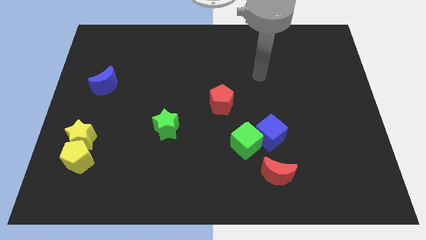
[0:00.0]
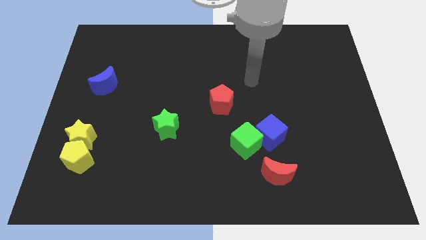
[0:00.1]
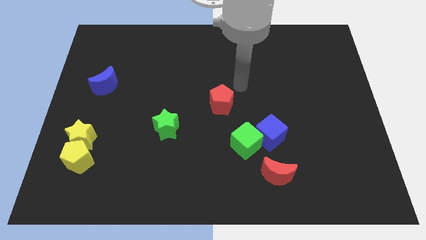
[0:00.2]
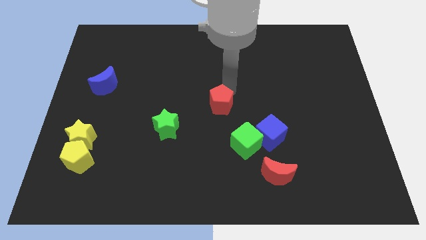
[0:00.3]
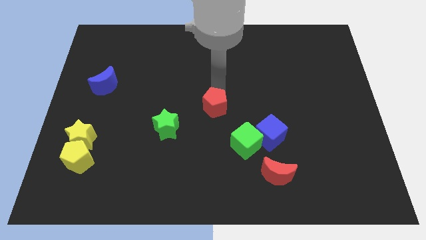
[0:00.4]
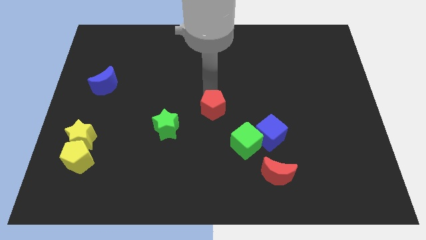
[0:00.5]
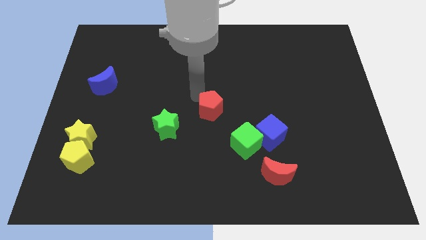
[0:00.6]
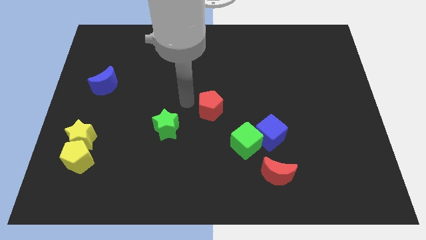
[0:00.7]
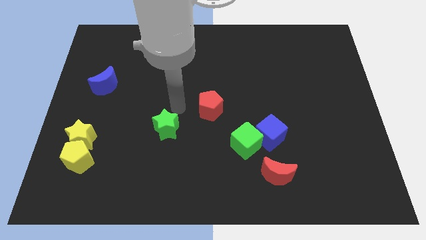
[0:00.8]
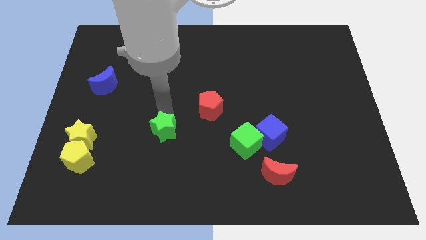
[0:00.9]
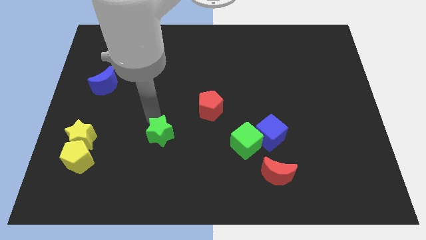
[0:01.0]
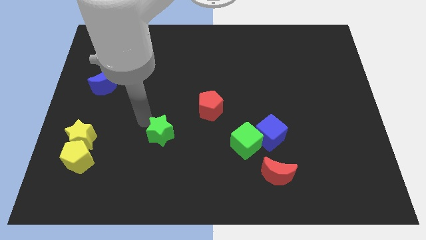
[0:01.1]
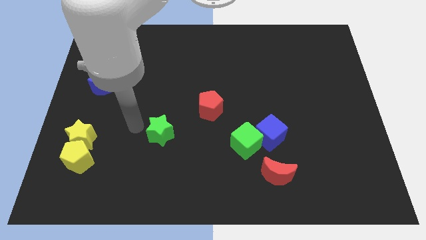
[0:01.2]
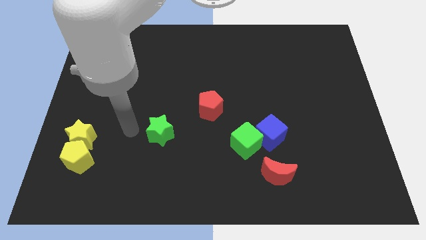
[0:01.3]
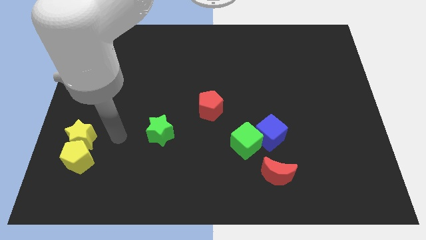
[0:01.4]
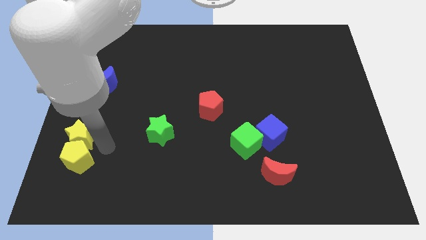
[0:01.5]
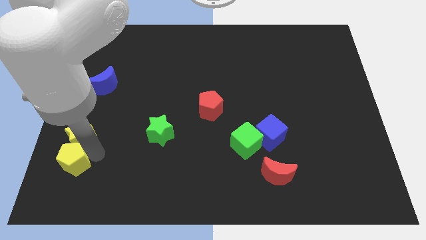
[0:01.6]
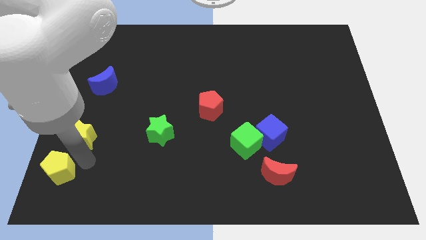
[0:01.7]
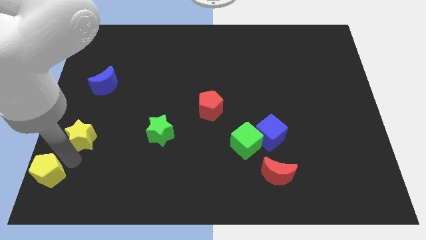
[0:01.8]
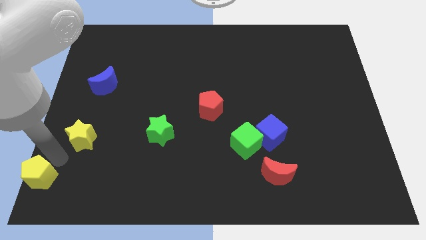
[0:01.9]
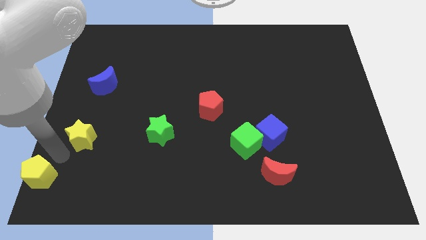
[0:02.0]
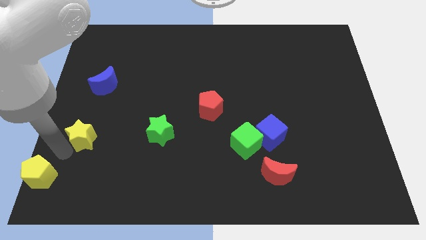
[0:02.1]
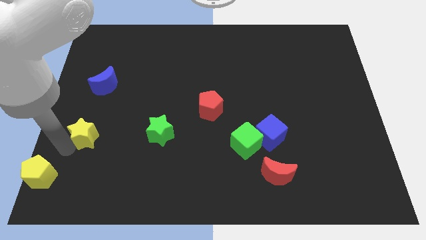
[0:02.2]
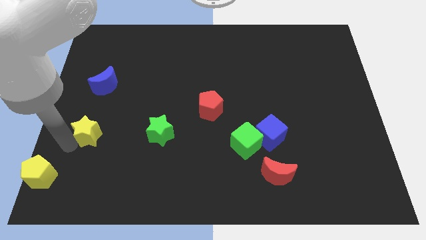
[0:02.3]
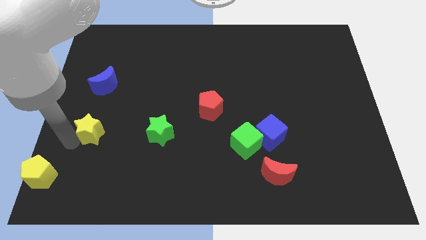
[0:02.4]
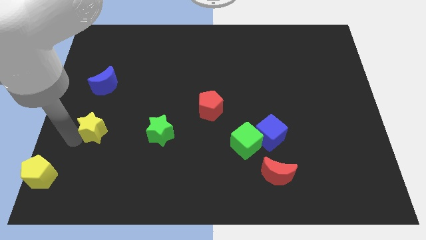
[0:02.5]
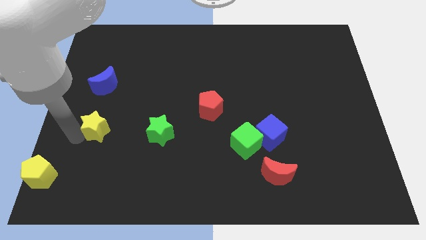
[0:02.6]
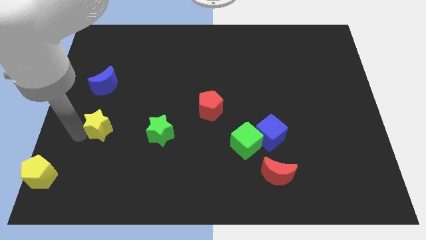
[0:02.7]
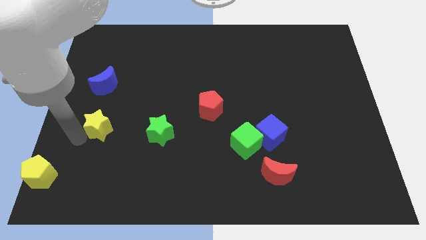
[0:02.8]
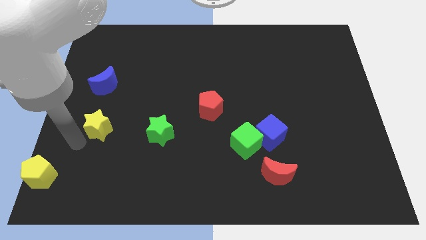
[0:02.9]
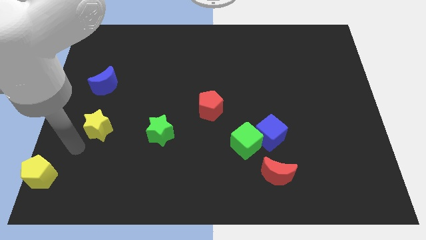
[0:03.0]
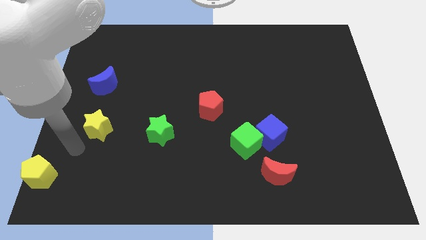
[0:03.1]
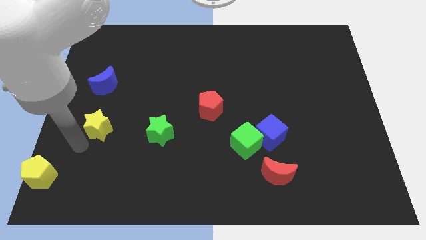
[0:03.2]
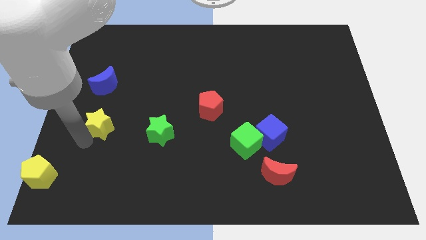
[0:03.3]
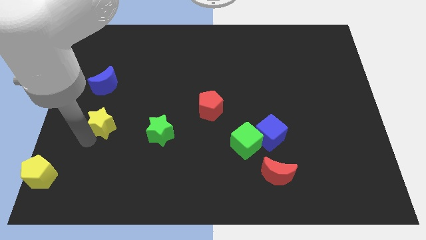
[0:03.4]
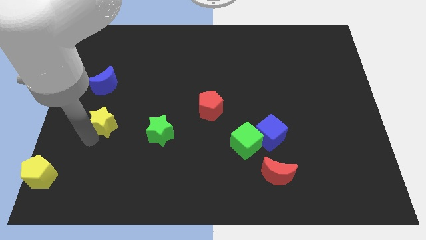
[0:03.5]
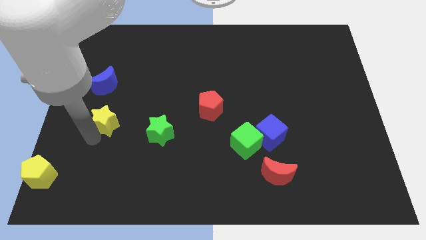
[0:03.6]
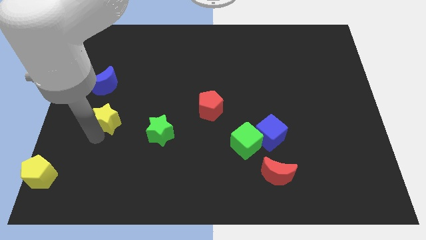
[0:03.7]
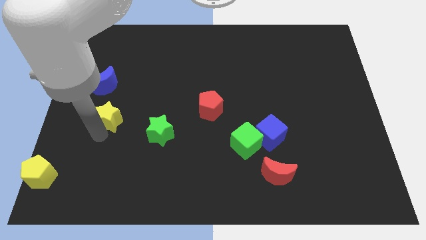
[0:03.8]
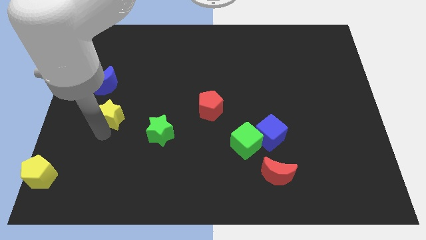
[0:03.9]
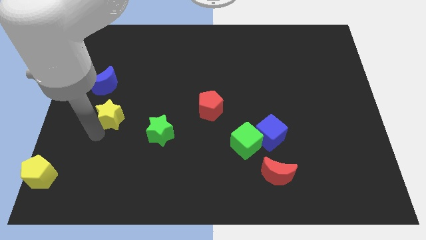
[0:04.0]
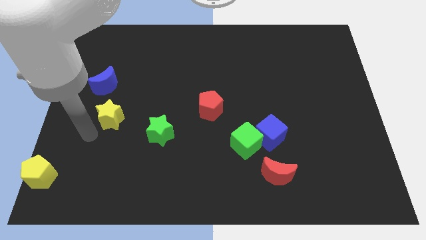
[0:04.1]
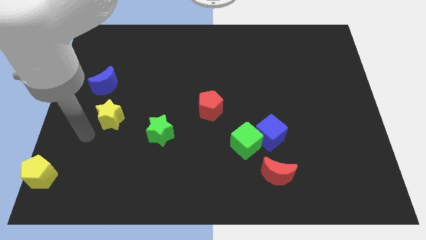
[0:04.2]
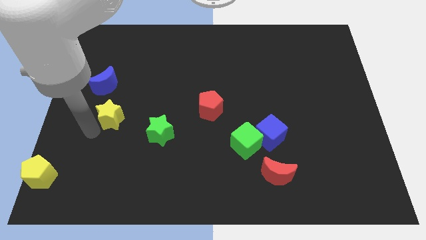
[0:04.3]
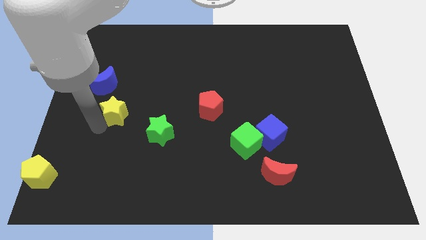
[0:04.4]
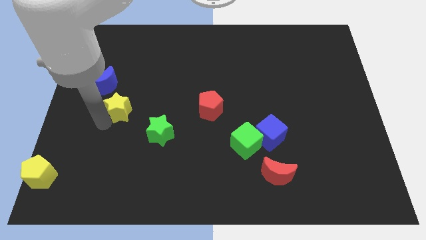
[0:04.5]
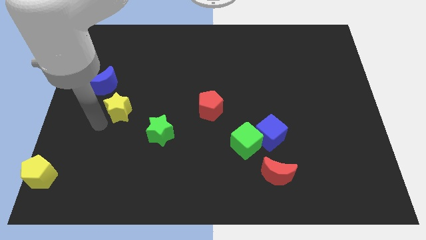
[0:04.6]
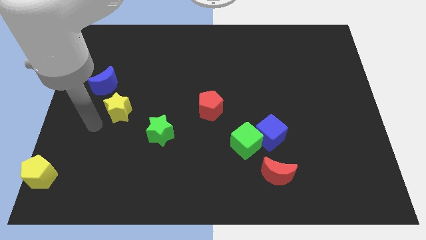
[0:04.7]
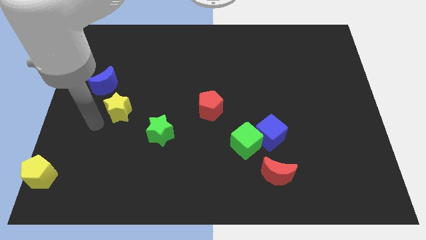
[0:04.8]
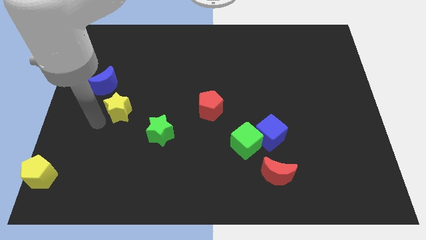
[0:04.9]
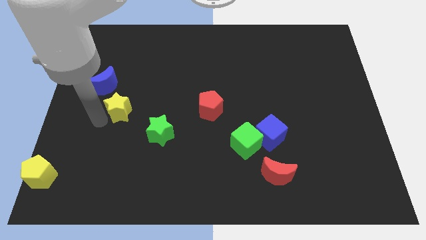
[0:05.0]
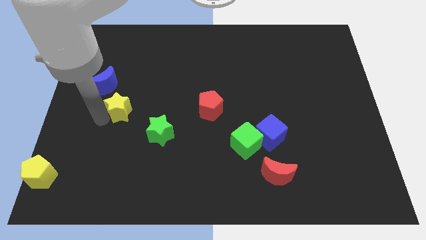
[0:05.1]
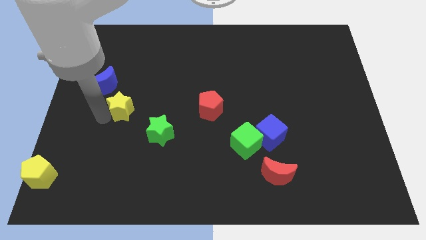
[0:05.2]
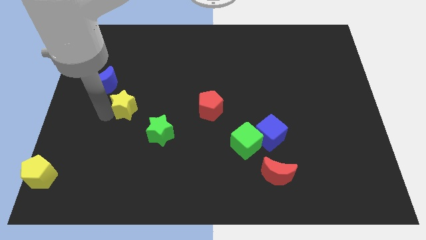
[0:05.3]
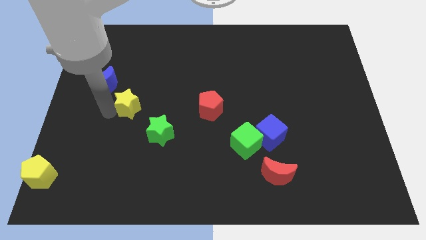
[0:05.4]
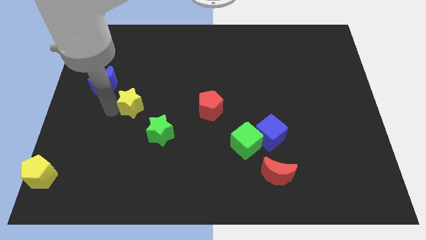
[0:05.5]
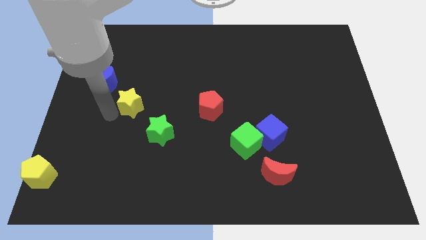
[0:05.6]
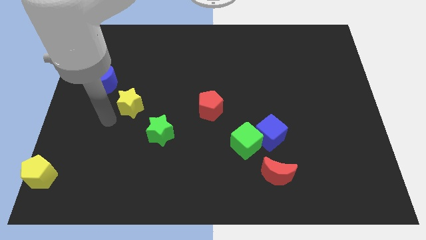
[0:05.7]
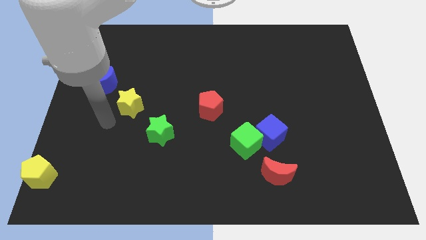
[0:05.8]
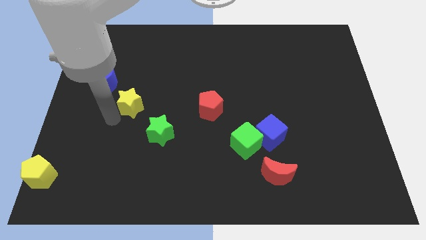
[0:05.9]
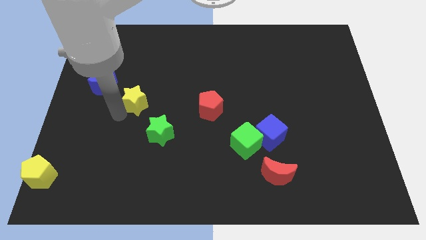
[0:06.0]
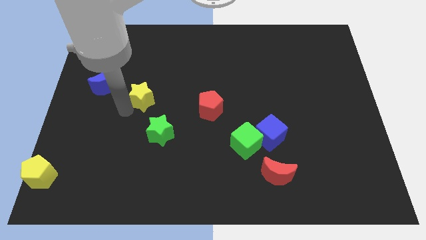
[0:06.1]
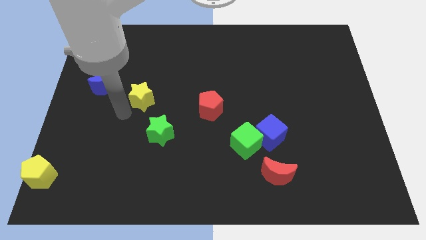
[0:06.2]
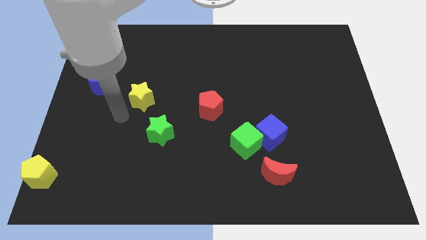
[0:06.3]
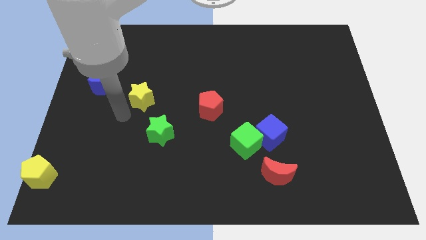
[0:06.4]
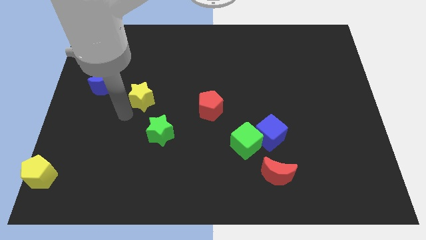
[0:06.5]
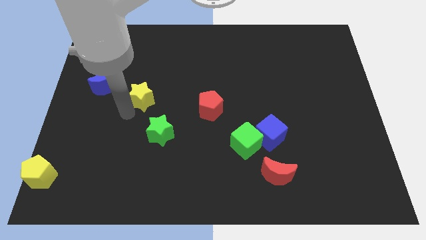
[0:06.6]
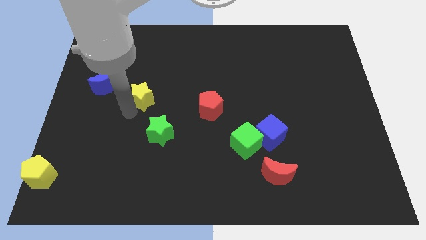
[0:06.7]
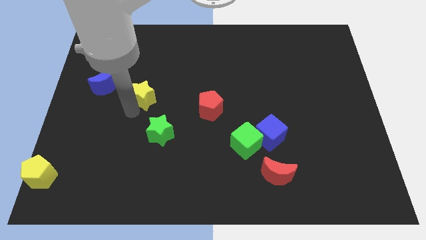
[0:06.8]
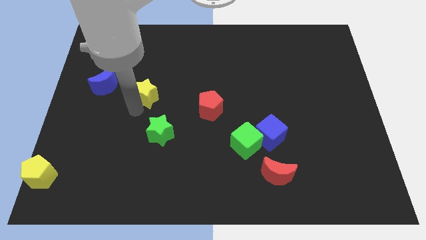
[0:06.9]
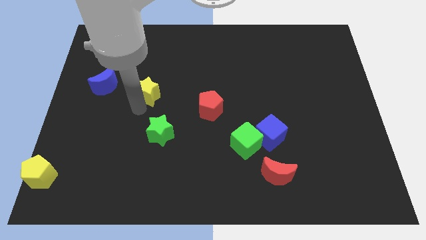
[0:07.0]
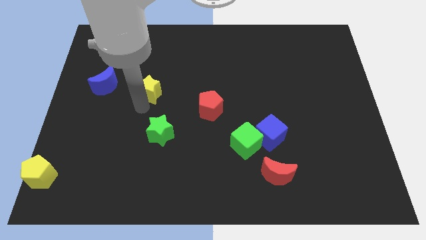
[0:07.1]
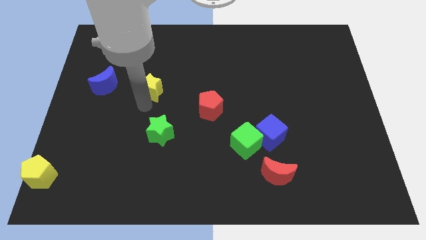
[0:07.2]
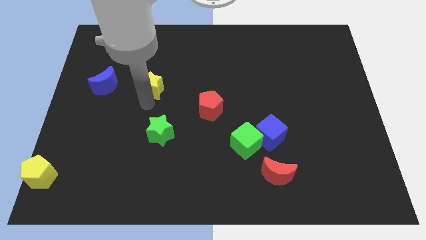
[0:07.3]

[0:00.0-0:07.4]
slide the yellow star upwards and to the right

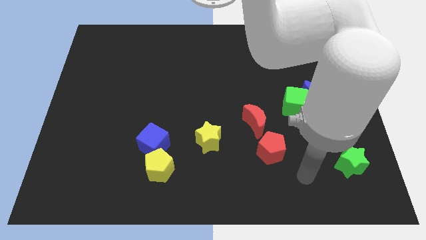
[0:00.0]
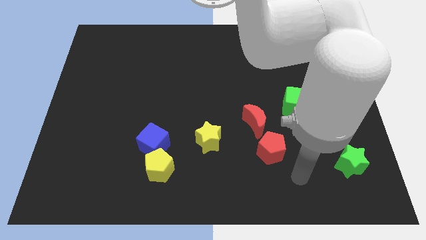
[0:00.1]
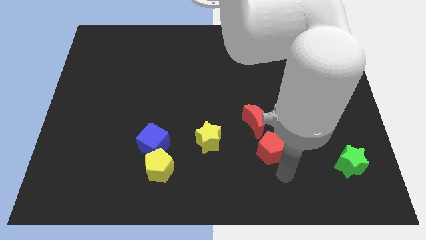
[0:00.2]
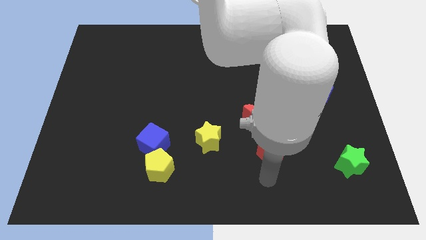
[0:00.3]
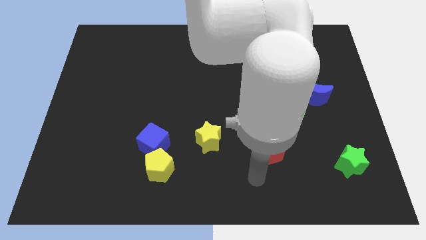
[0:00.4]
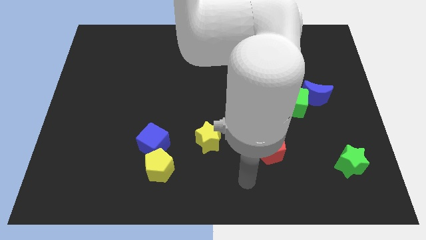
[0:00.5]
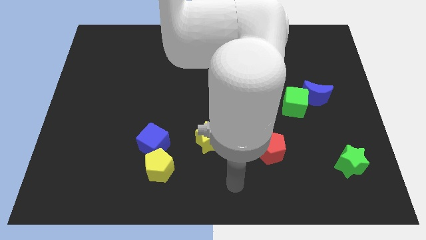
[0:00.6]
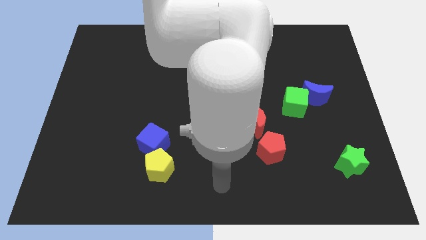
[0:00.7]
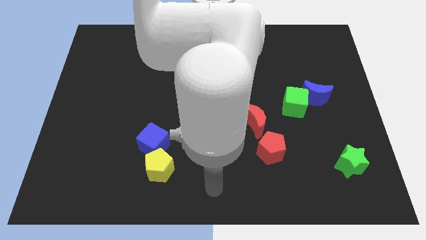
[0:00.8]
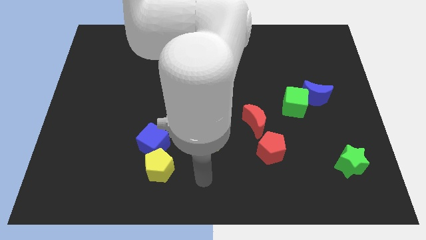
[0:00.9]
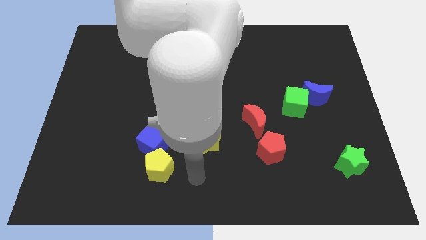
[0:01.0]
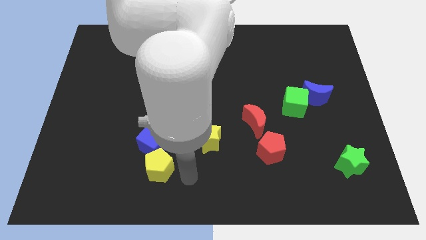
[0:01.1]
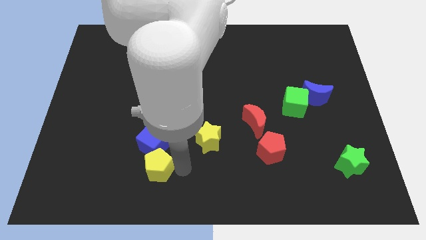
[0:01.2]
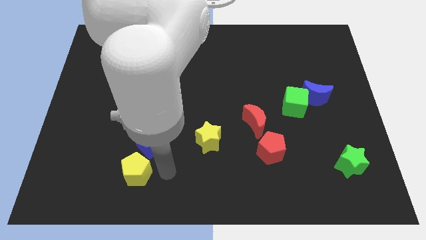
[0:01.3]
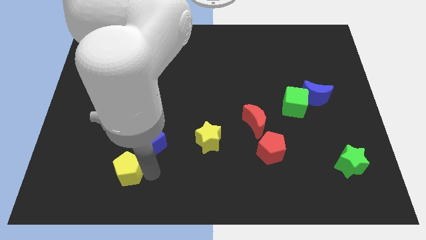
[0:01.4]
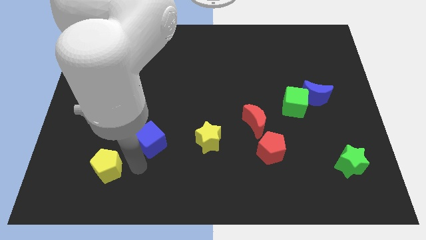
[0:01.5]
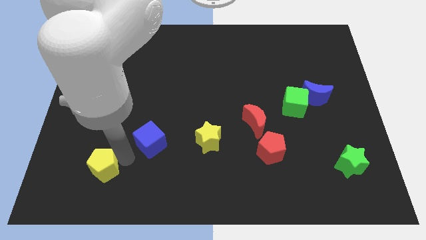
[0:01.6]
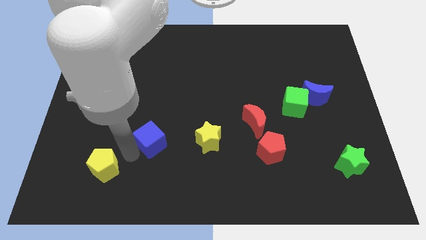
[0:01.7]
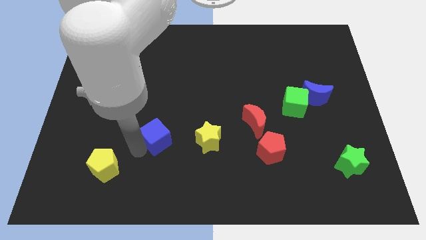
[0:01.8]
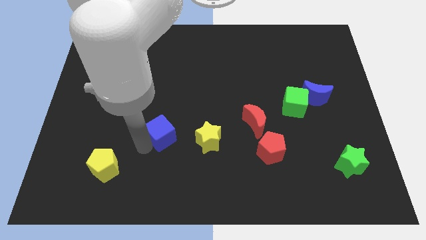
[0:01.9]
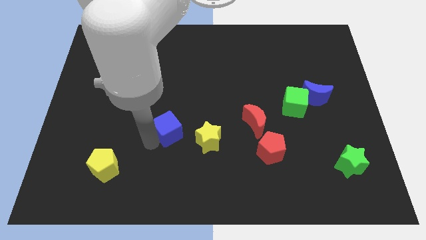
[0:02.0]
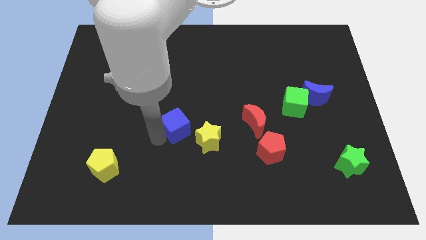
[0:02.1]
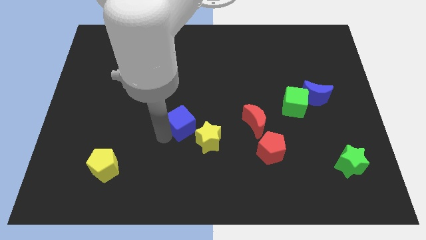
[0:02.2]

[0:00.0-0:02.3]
slightly move the blue cube upwards and right
